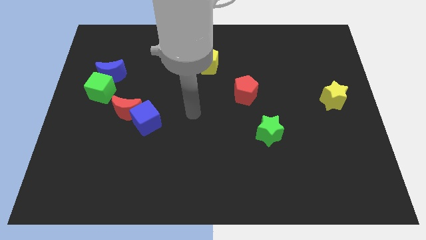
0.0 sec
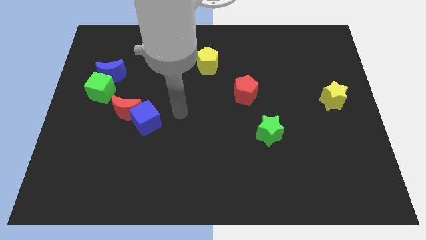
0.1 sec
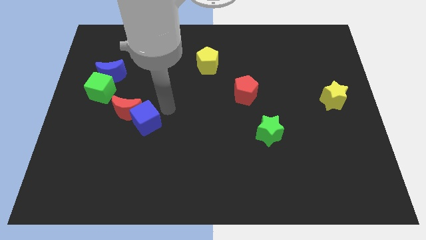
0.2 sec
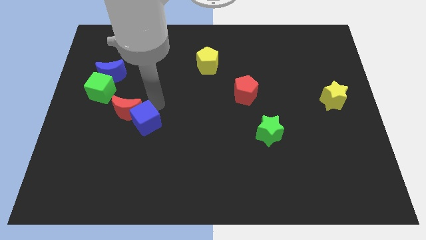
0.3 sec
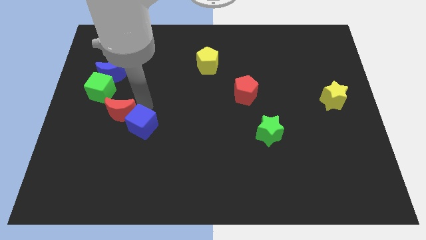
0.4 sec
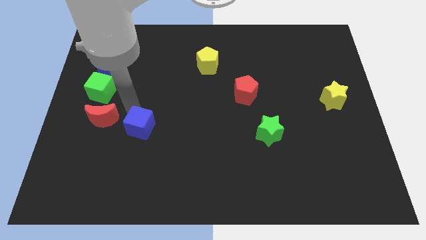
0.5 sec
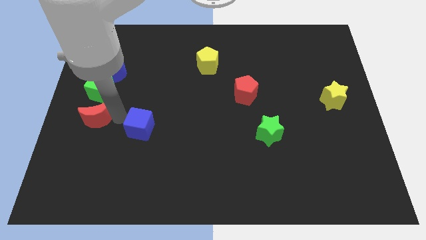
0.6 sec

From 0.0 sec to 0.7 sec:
pull the blue cube apart from the red moon

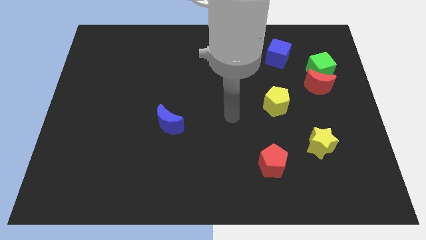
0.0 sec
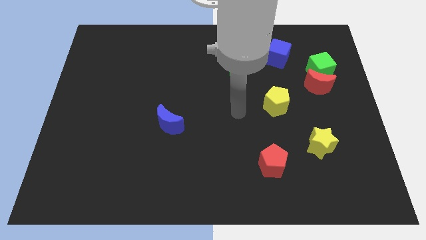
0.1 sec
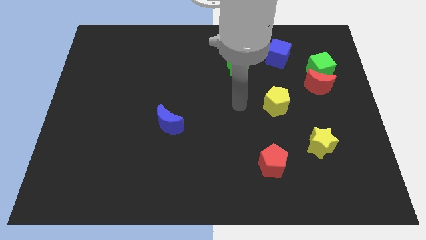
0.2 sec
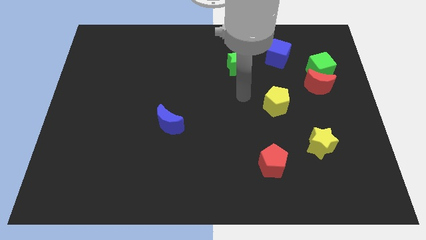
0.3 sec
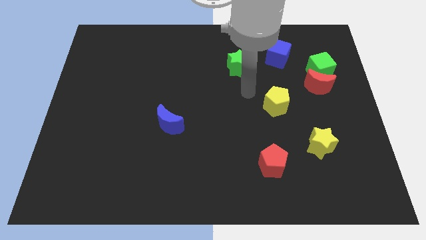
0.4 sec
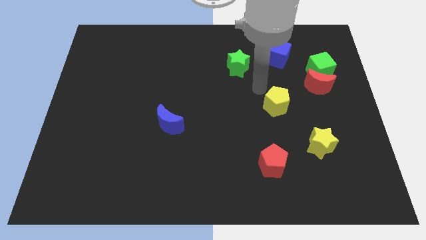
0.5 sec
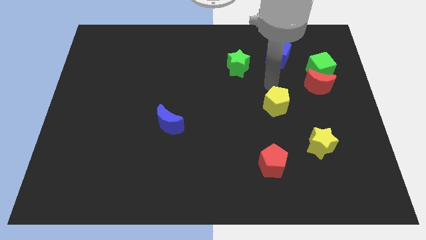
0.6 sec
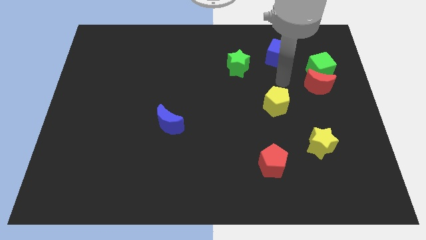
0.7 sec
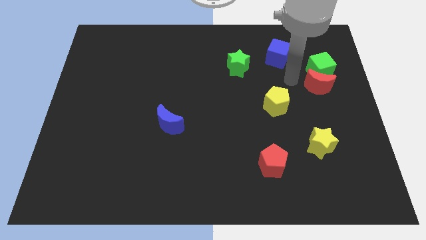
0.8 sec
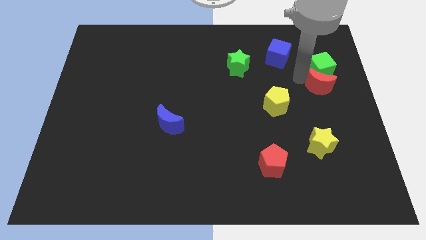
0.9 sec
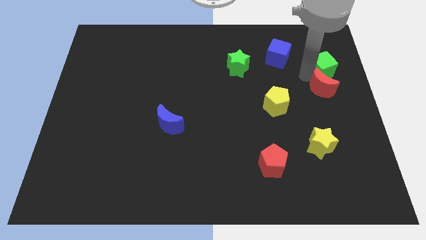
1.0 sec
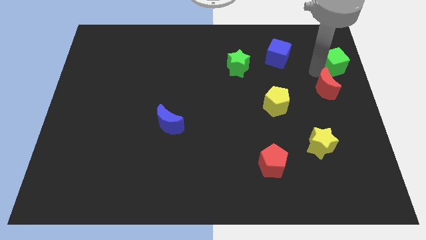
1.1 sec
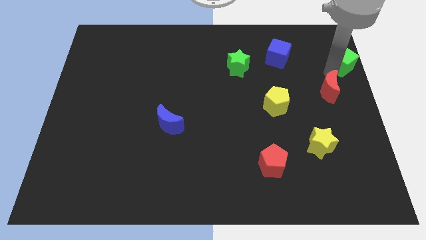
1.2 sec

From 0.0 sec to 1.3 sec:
pull the red moon apart from the green cube

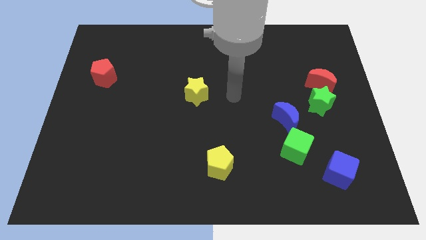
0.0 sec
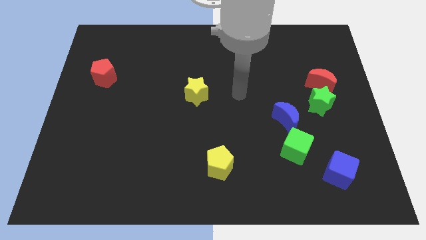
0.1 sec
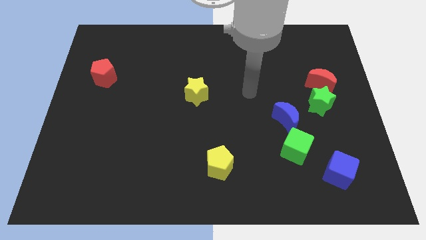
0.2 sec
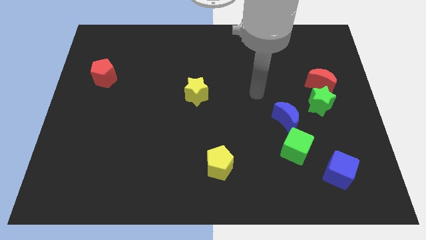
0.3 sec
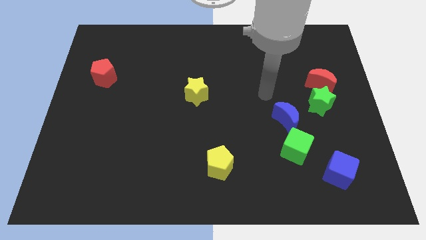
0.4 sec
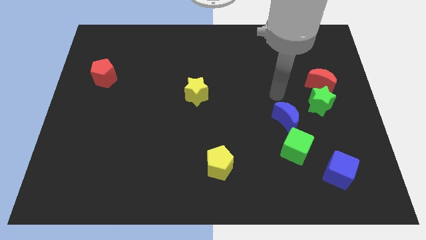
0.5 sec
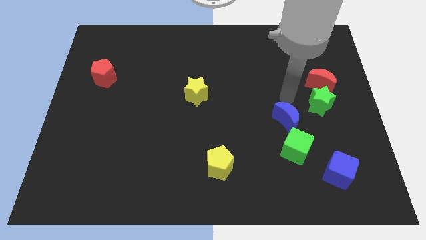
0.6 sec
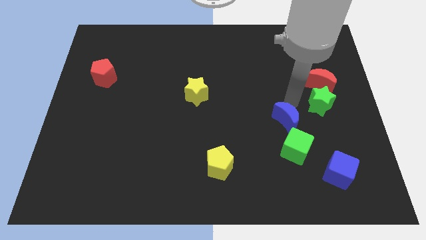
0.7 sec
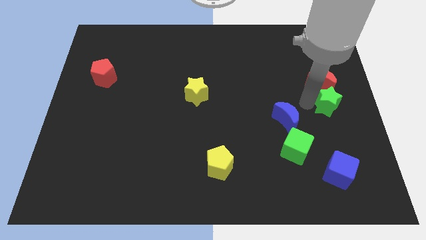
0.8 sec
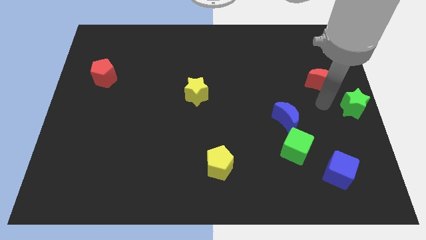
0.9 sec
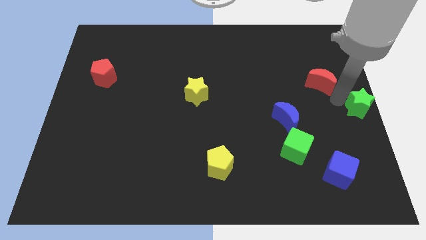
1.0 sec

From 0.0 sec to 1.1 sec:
move the red moon away from the green star

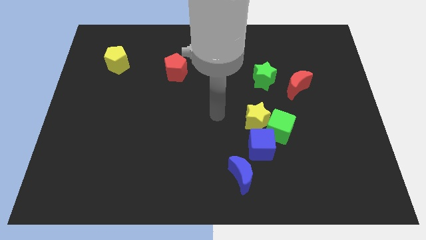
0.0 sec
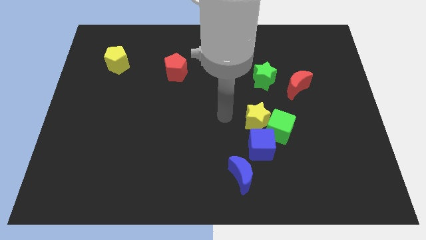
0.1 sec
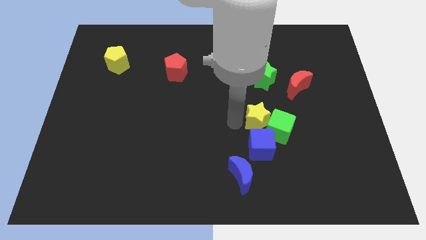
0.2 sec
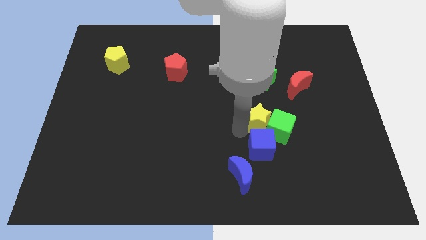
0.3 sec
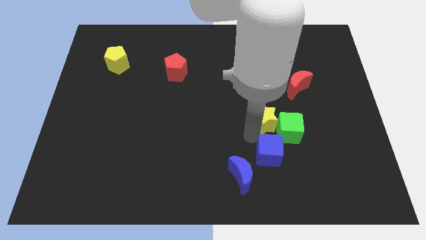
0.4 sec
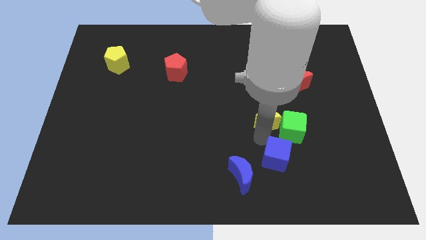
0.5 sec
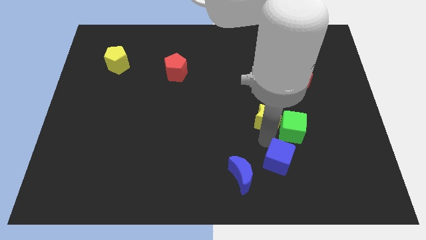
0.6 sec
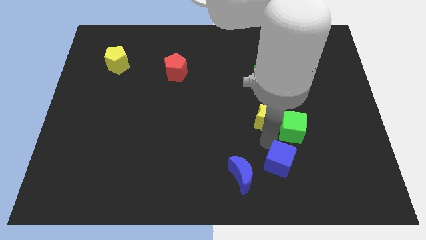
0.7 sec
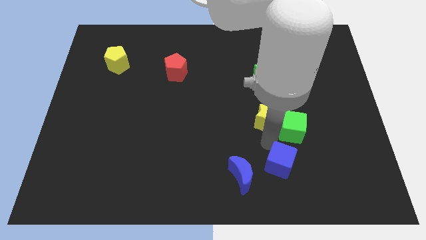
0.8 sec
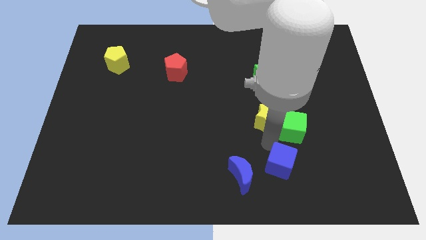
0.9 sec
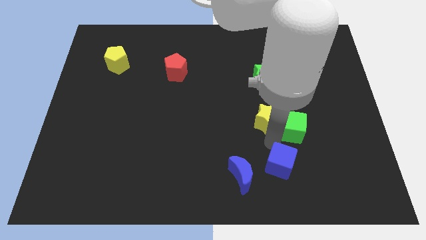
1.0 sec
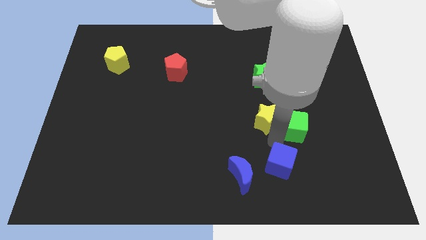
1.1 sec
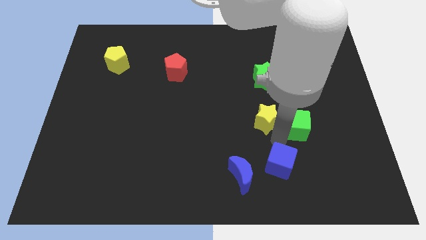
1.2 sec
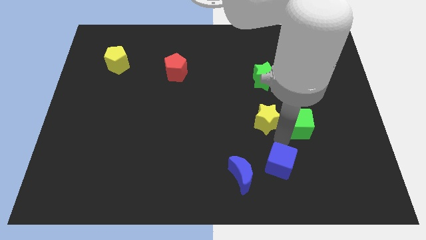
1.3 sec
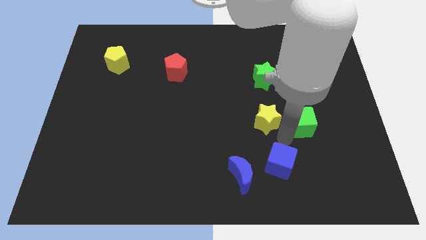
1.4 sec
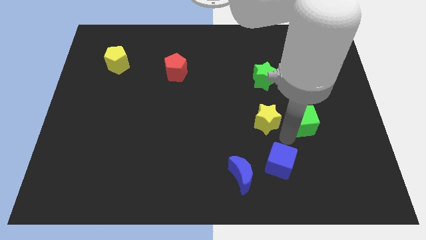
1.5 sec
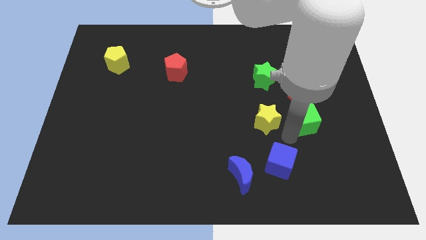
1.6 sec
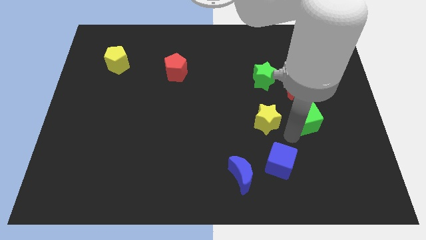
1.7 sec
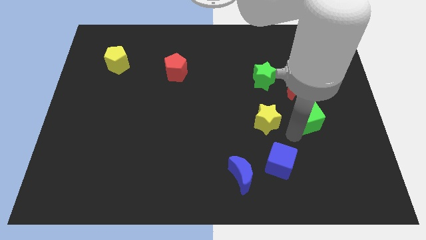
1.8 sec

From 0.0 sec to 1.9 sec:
pull the green cube apart from the yellow star and blue cube

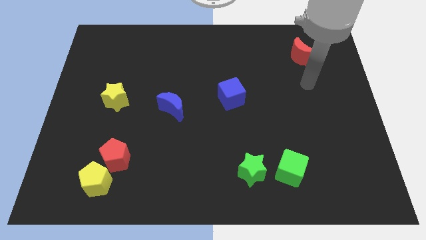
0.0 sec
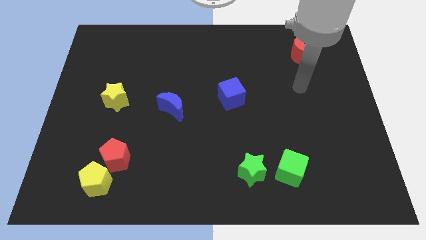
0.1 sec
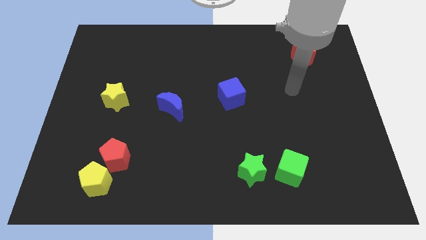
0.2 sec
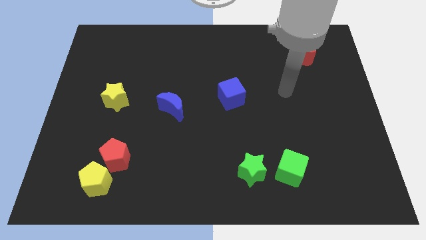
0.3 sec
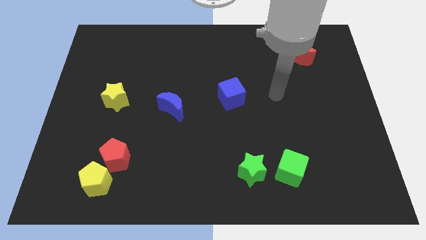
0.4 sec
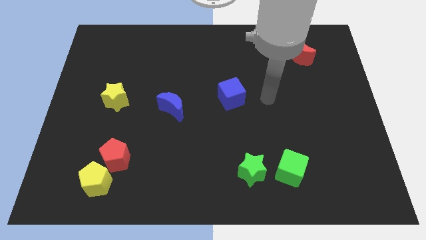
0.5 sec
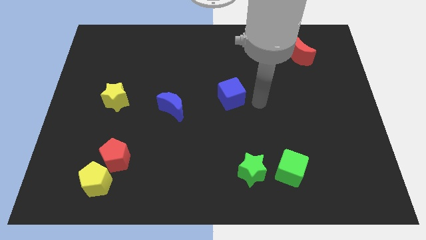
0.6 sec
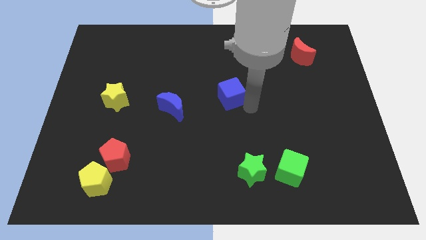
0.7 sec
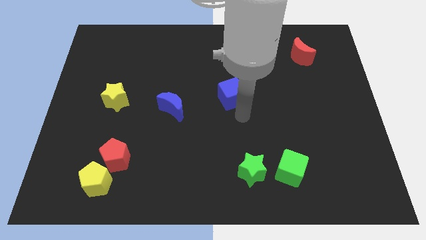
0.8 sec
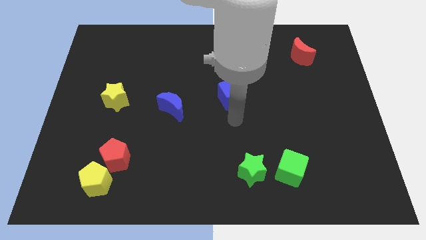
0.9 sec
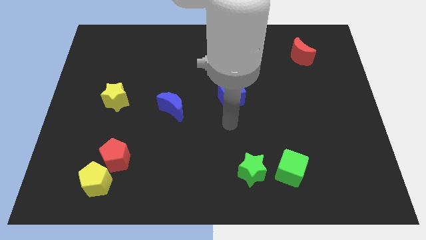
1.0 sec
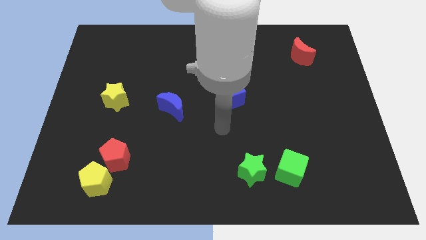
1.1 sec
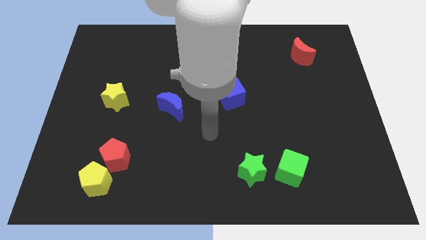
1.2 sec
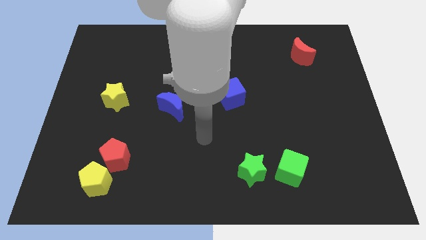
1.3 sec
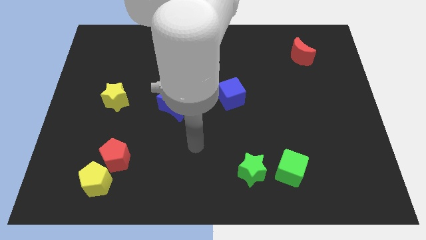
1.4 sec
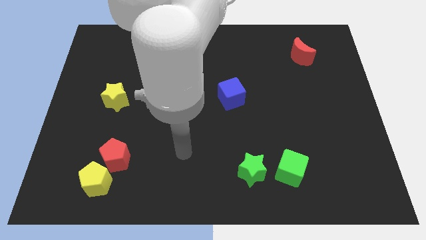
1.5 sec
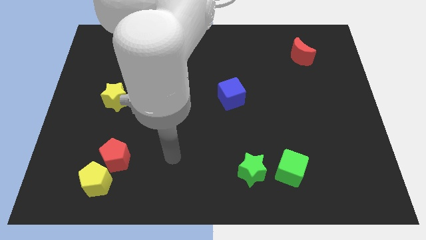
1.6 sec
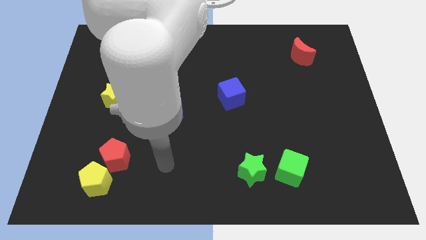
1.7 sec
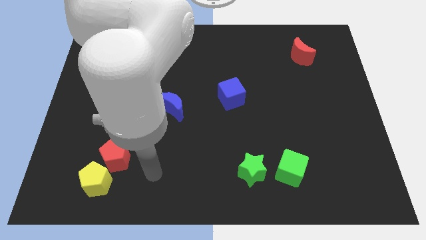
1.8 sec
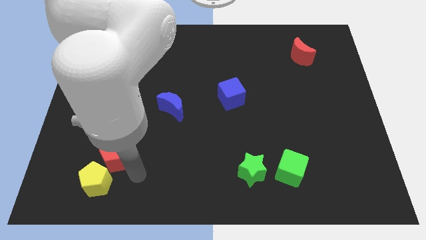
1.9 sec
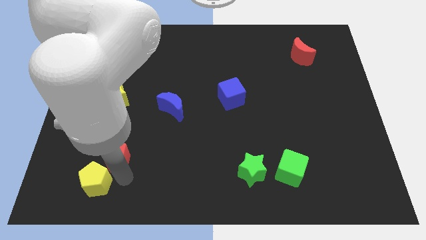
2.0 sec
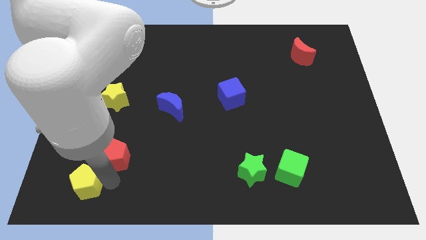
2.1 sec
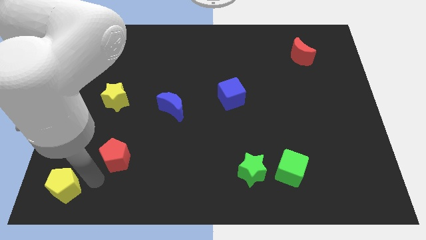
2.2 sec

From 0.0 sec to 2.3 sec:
pull the red pentagon apart from the yellow pentagon

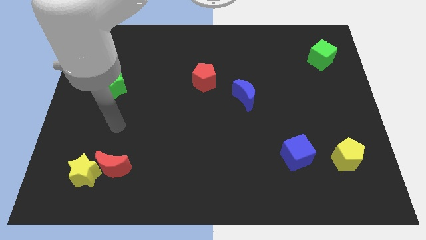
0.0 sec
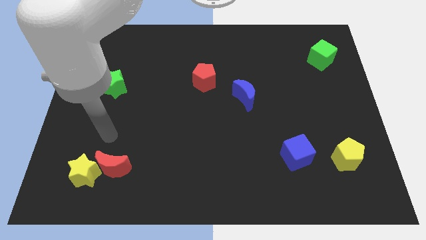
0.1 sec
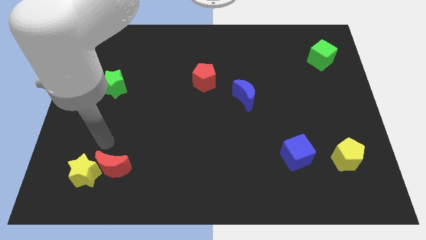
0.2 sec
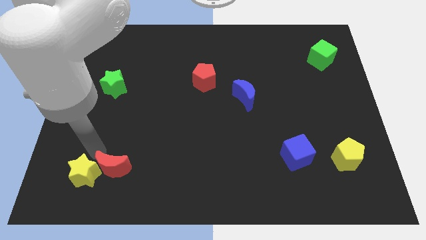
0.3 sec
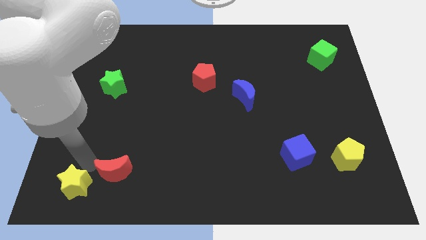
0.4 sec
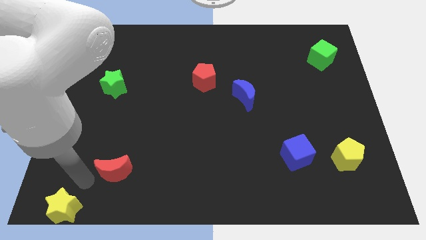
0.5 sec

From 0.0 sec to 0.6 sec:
pull the red moon apart from the yellow star

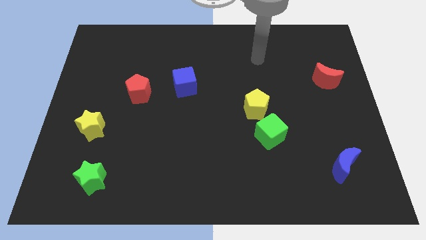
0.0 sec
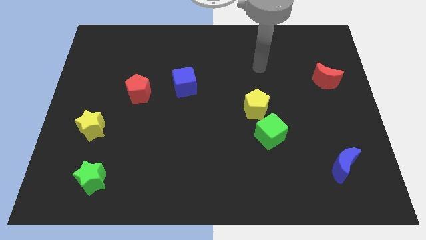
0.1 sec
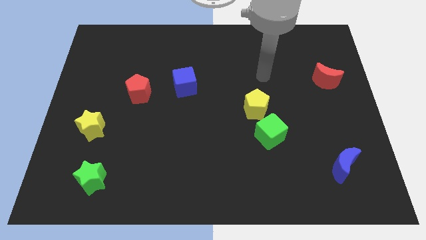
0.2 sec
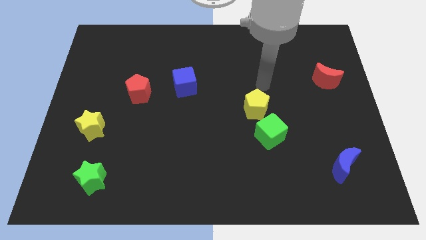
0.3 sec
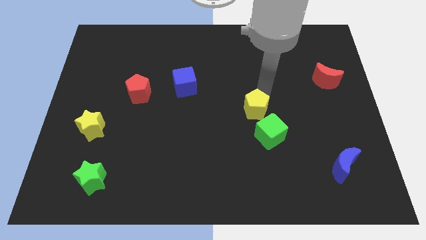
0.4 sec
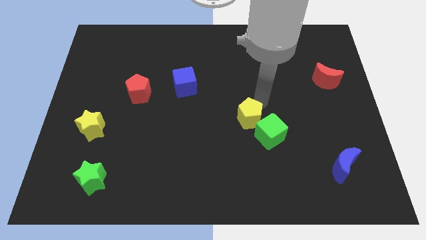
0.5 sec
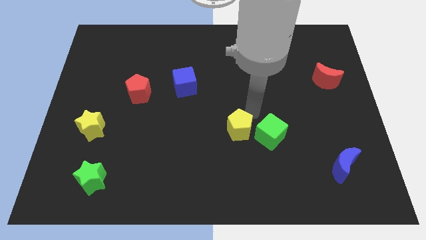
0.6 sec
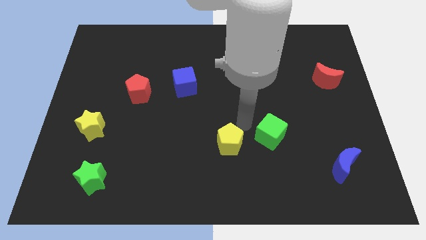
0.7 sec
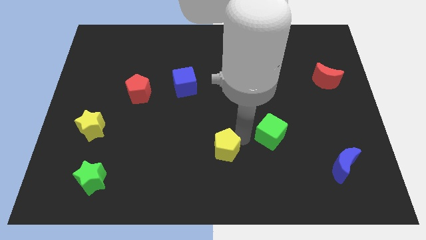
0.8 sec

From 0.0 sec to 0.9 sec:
move the green cube away from the yellow pentagon

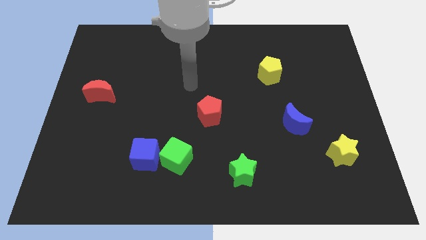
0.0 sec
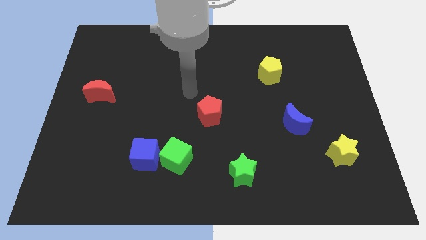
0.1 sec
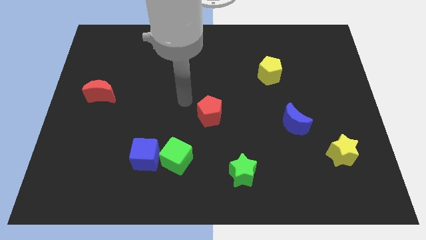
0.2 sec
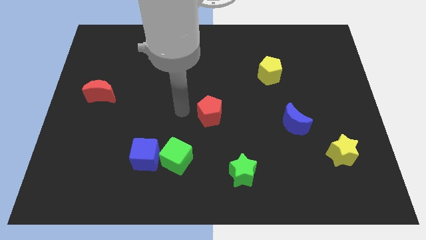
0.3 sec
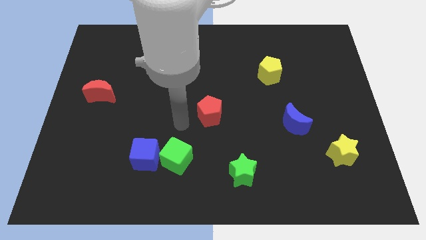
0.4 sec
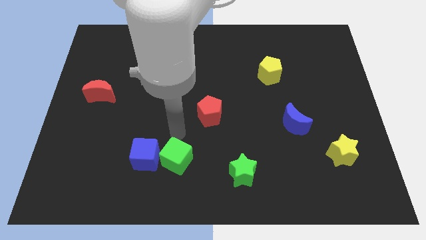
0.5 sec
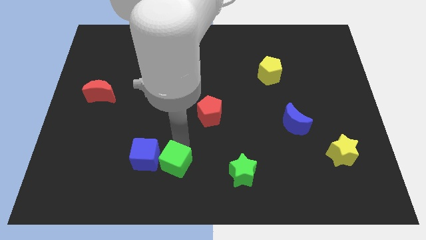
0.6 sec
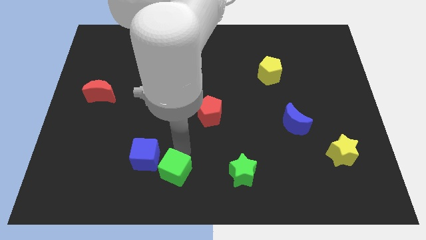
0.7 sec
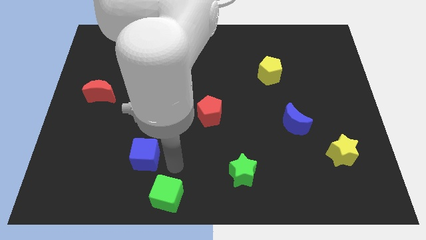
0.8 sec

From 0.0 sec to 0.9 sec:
move the blue cube away from the green cube
